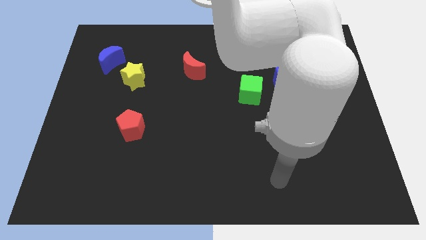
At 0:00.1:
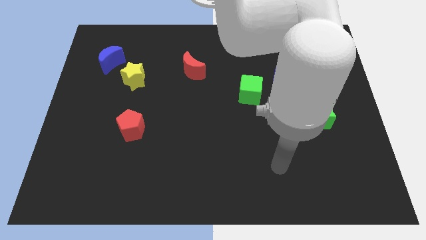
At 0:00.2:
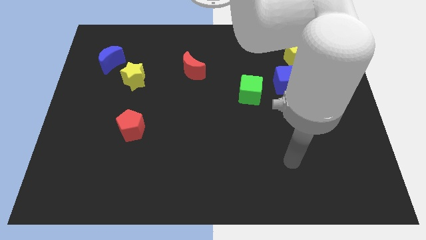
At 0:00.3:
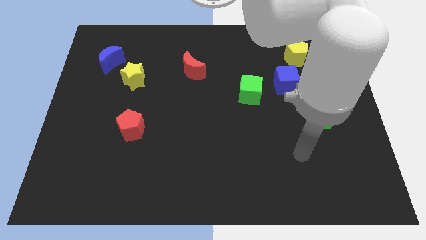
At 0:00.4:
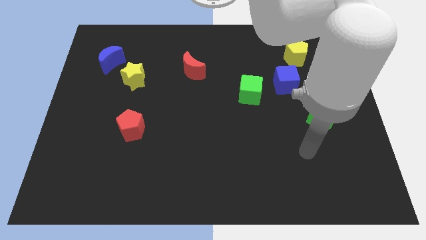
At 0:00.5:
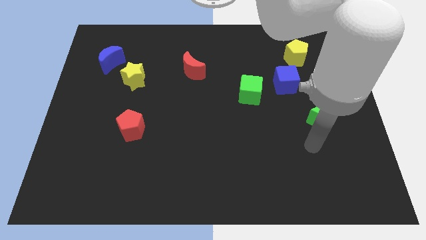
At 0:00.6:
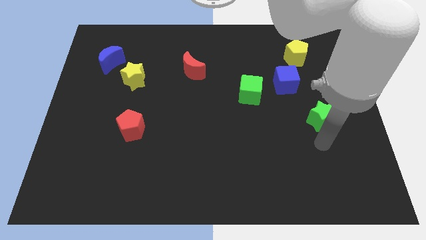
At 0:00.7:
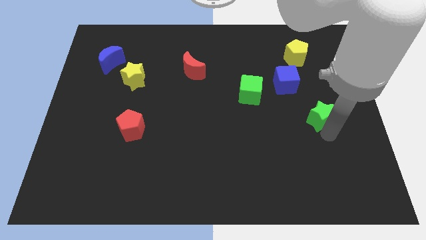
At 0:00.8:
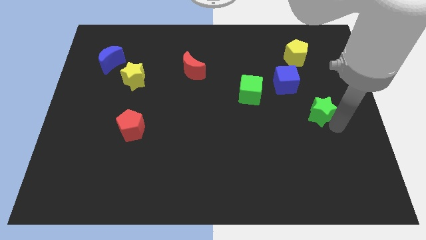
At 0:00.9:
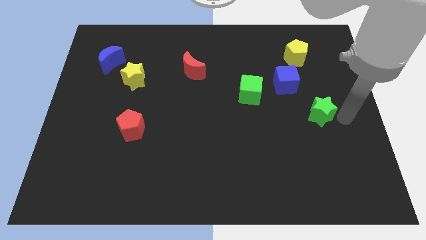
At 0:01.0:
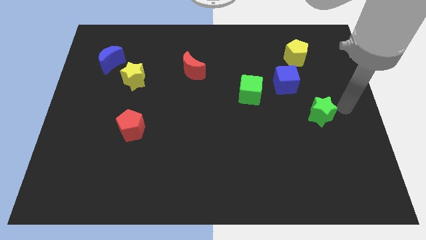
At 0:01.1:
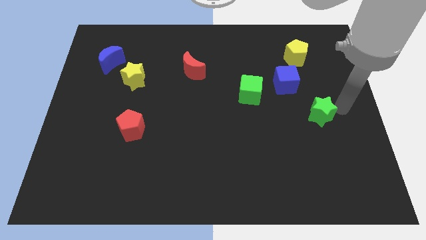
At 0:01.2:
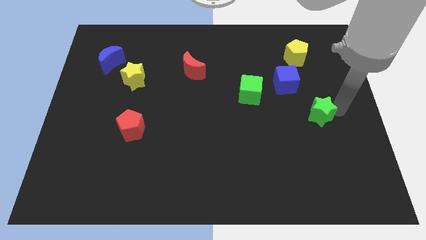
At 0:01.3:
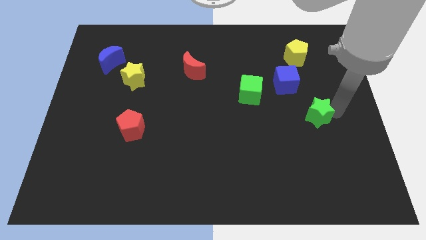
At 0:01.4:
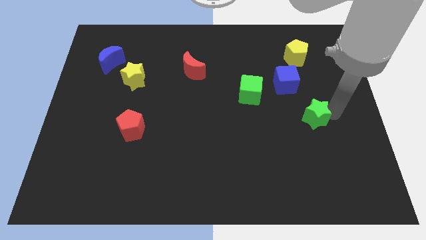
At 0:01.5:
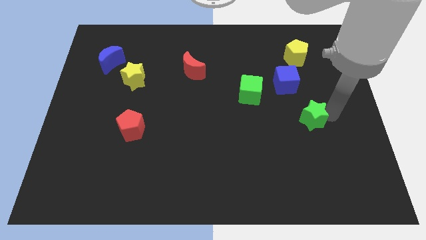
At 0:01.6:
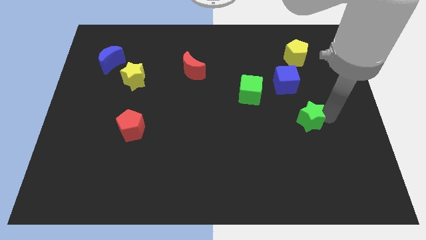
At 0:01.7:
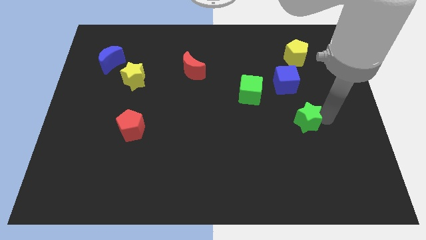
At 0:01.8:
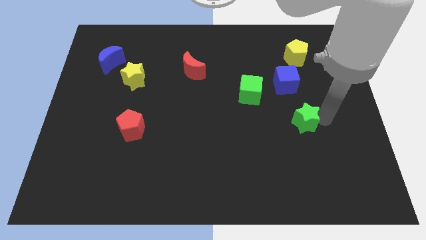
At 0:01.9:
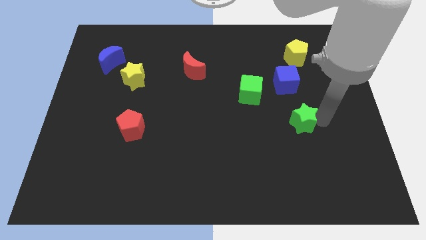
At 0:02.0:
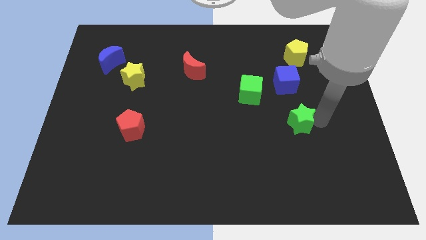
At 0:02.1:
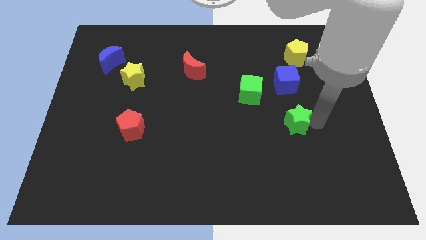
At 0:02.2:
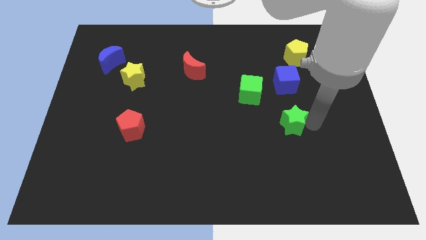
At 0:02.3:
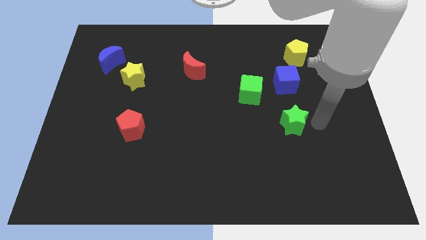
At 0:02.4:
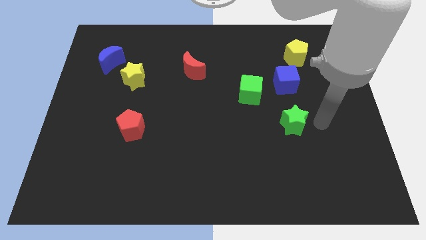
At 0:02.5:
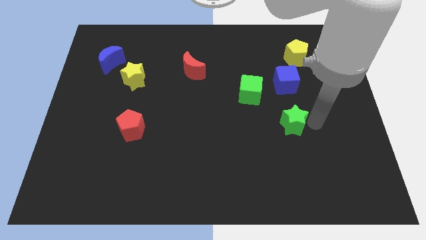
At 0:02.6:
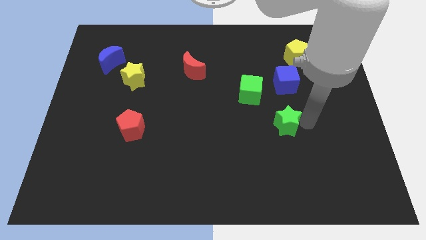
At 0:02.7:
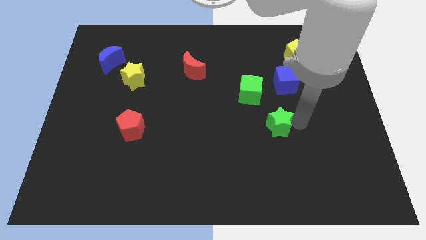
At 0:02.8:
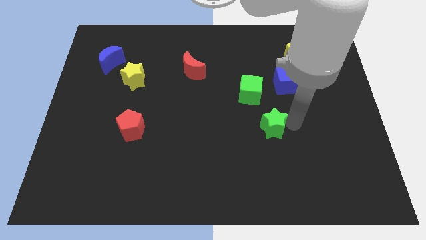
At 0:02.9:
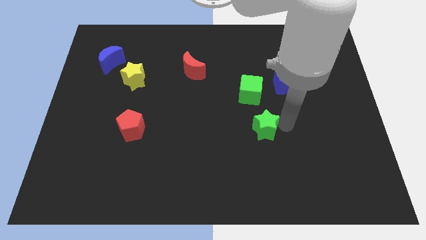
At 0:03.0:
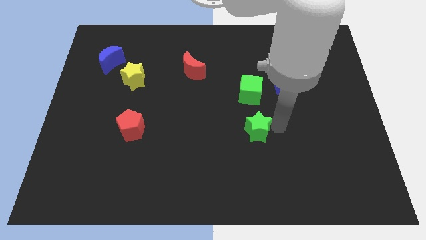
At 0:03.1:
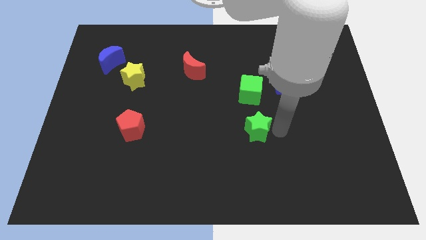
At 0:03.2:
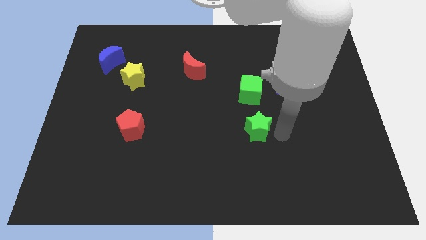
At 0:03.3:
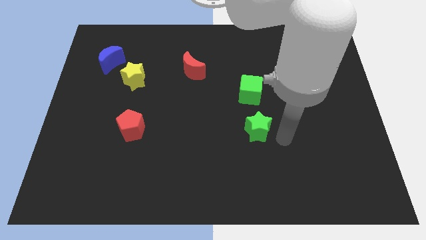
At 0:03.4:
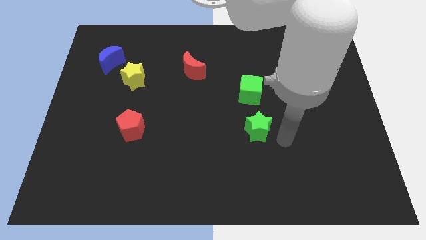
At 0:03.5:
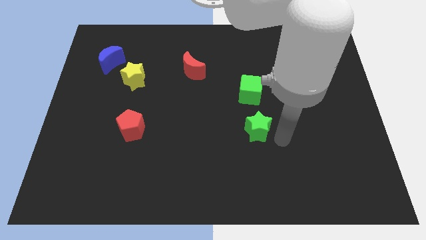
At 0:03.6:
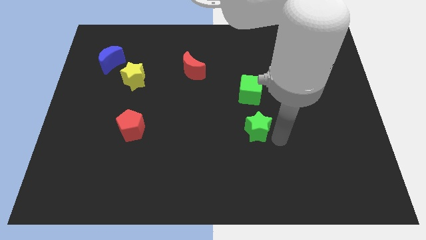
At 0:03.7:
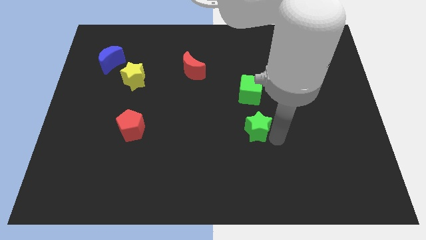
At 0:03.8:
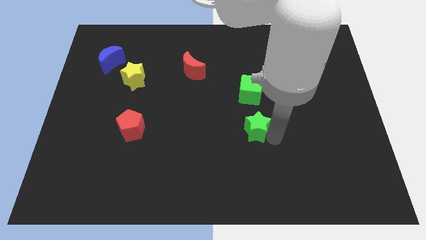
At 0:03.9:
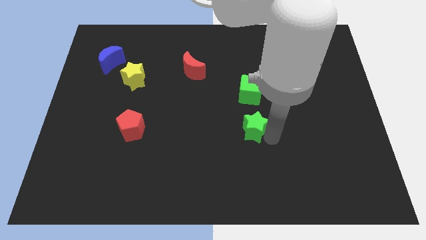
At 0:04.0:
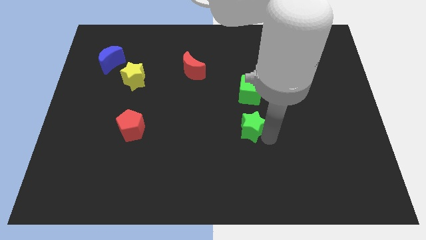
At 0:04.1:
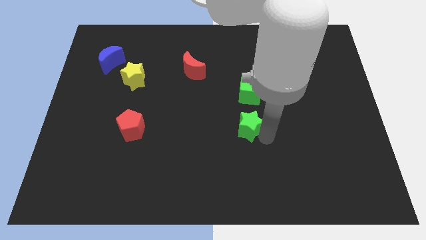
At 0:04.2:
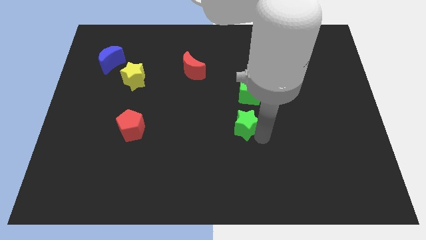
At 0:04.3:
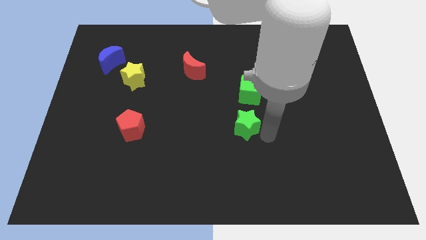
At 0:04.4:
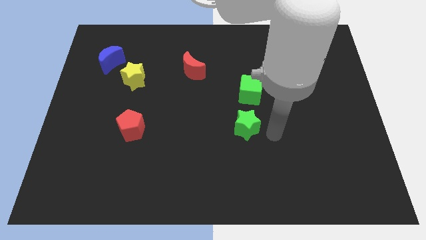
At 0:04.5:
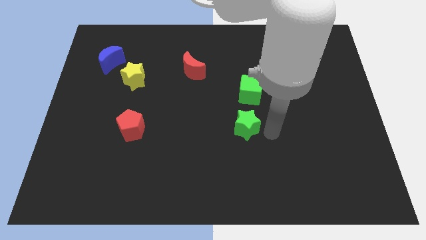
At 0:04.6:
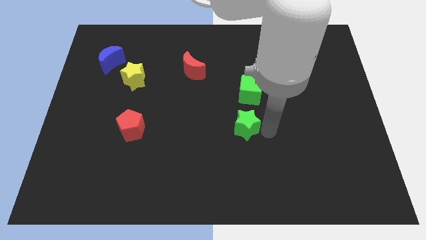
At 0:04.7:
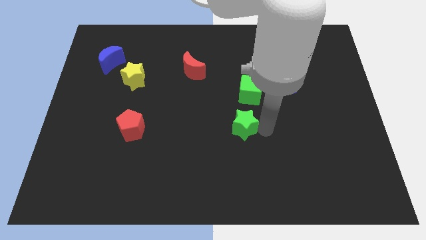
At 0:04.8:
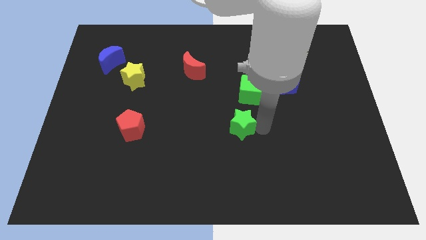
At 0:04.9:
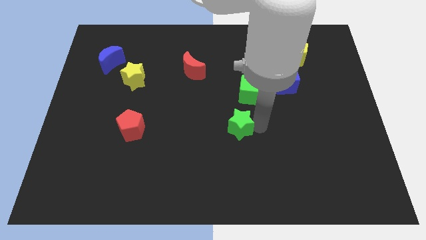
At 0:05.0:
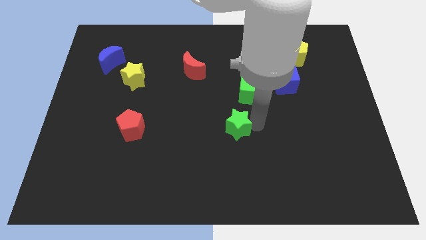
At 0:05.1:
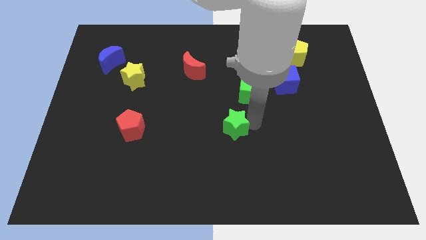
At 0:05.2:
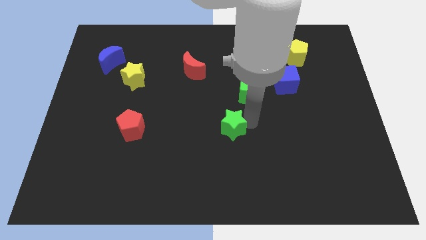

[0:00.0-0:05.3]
slide the green star to the left

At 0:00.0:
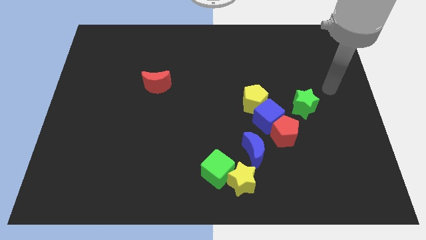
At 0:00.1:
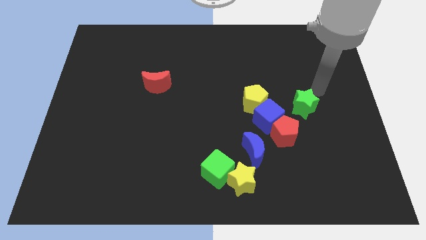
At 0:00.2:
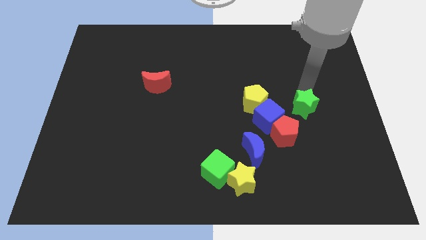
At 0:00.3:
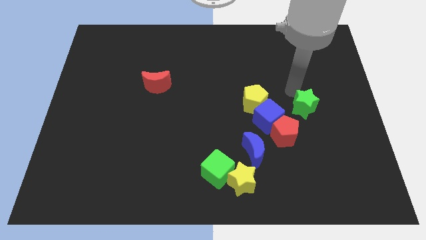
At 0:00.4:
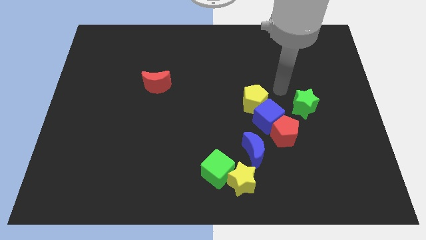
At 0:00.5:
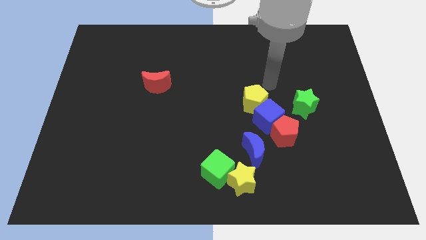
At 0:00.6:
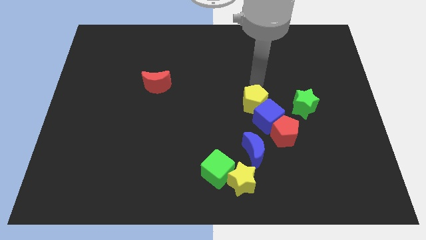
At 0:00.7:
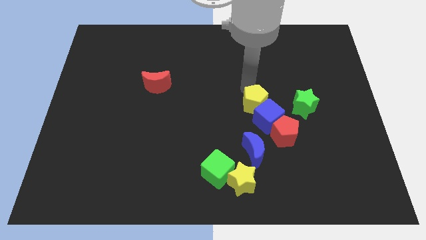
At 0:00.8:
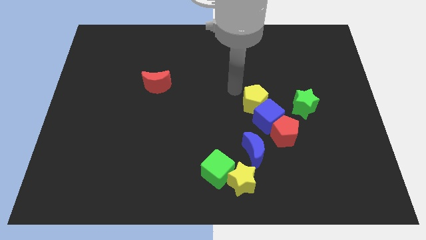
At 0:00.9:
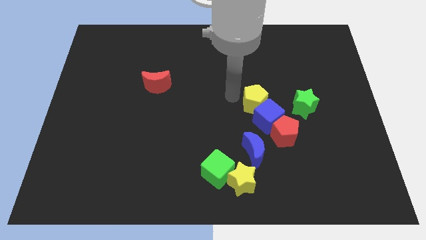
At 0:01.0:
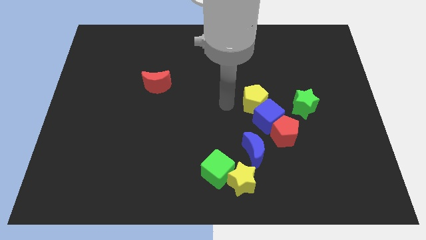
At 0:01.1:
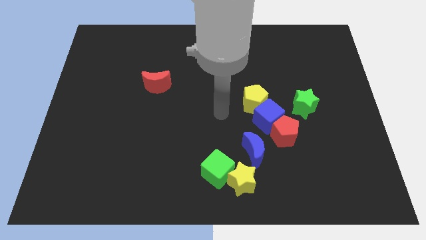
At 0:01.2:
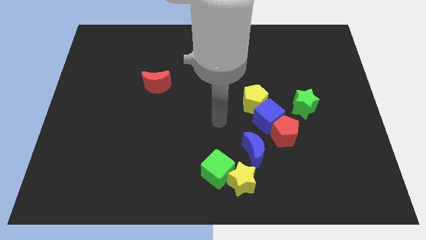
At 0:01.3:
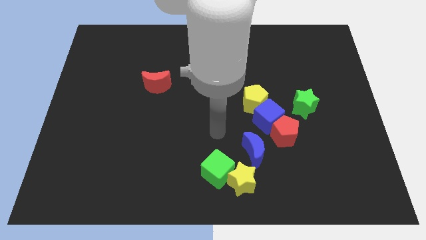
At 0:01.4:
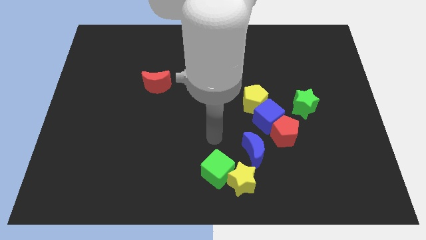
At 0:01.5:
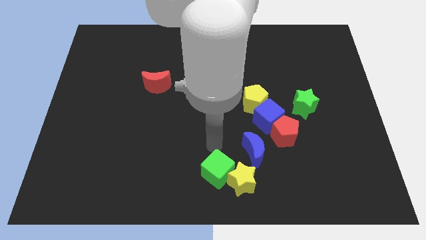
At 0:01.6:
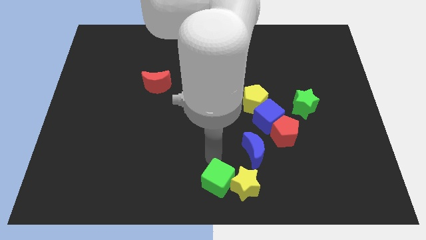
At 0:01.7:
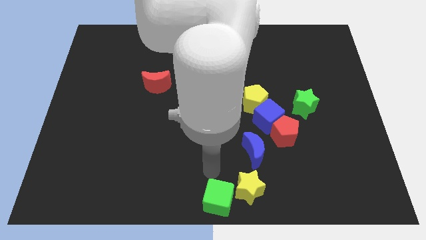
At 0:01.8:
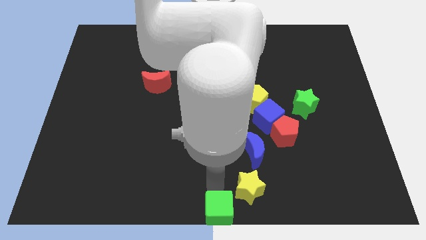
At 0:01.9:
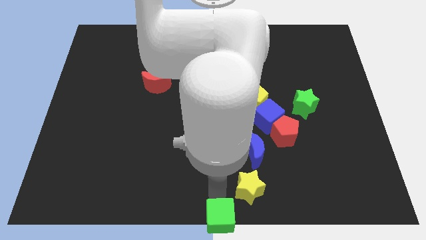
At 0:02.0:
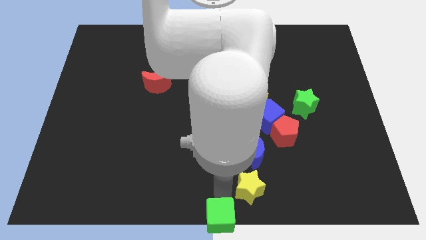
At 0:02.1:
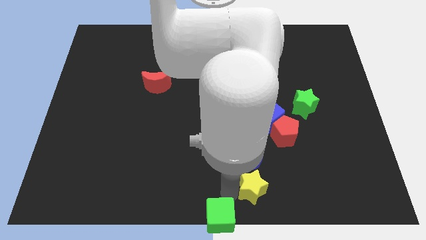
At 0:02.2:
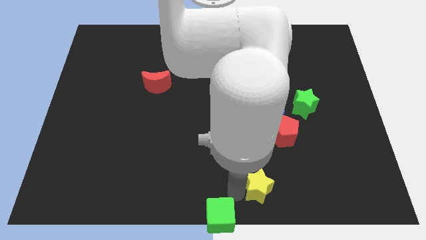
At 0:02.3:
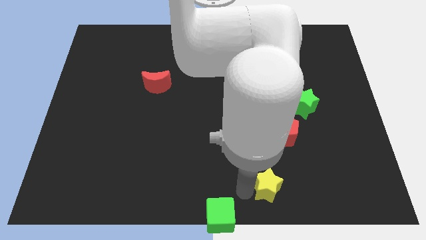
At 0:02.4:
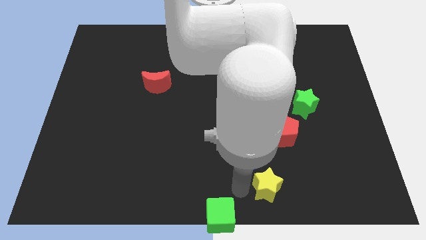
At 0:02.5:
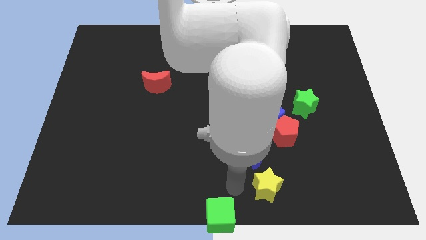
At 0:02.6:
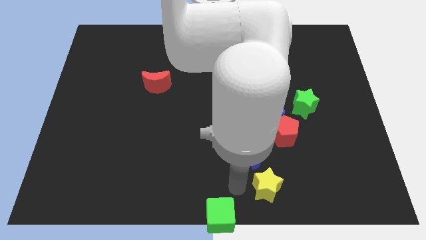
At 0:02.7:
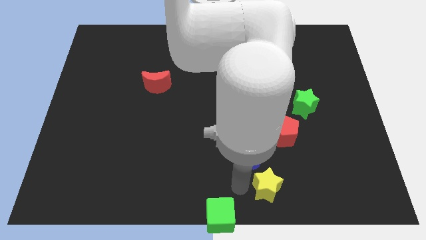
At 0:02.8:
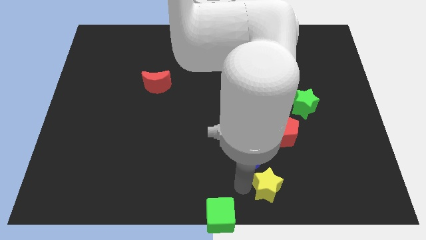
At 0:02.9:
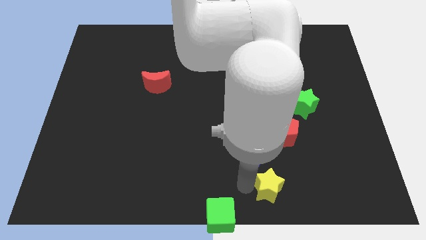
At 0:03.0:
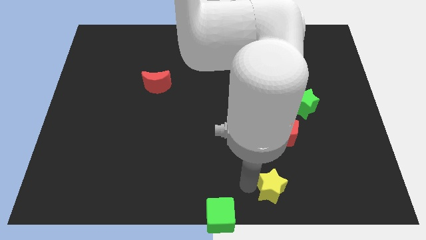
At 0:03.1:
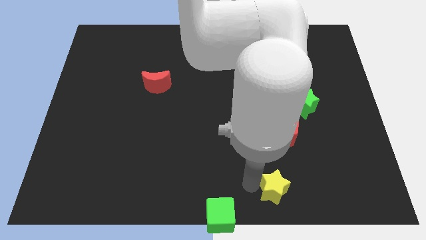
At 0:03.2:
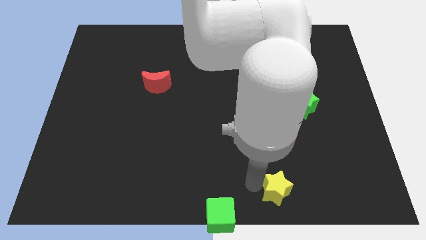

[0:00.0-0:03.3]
move the yellow star a bit to the right
